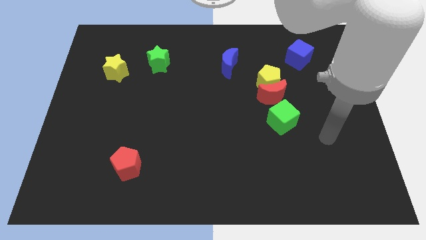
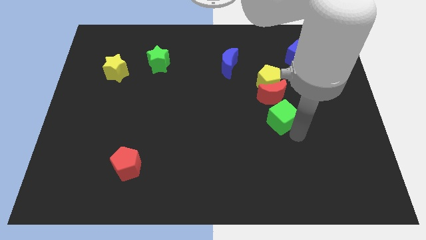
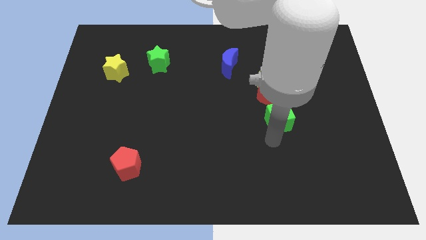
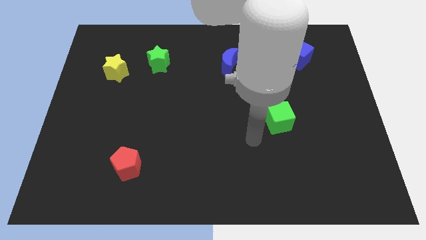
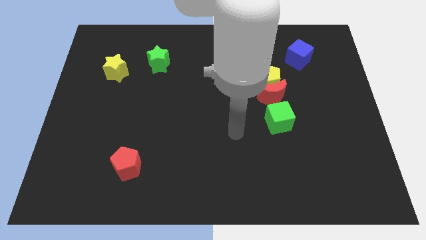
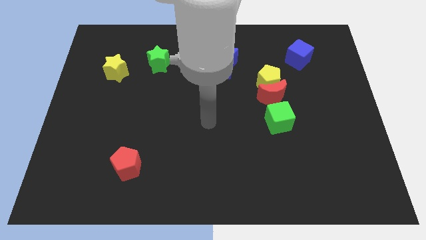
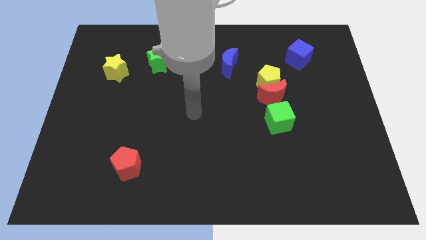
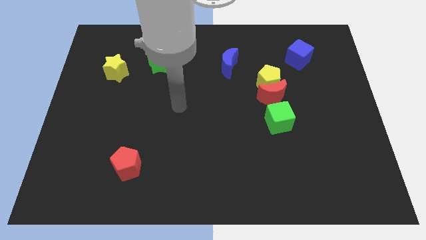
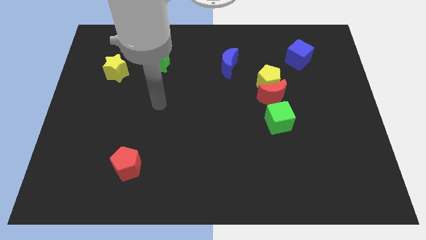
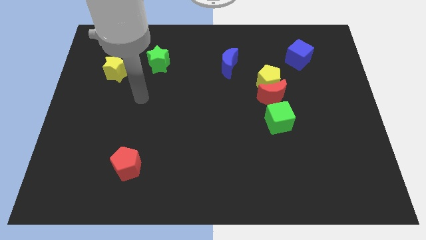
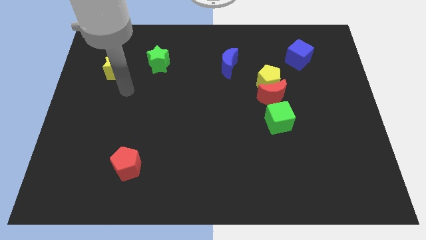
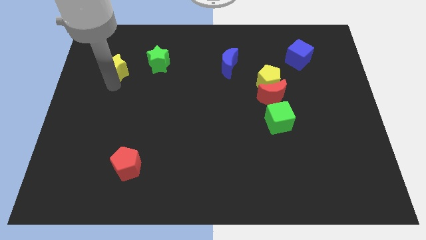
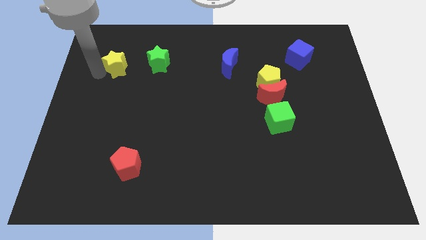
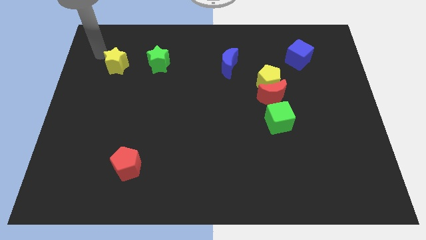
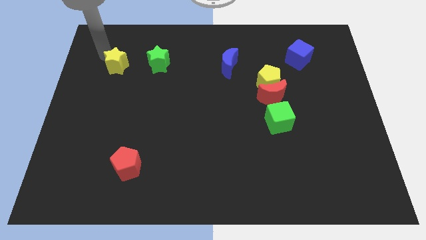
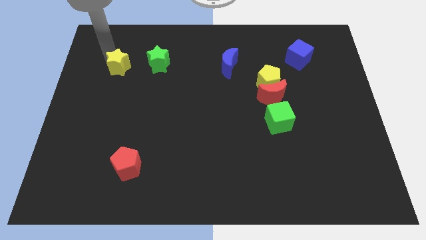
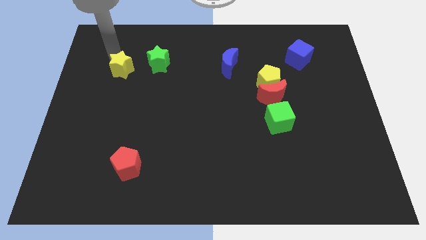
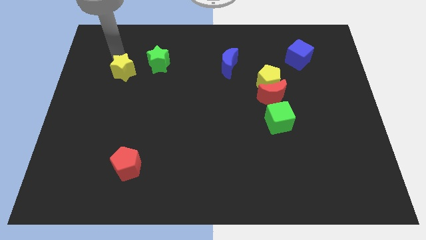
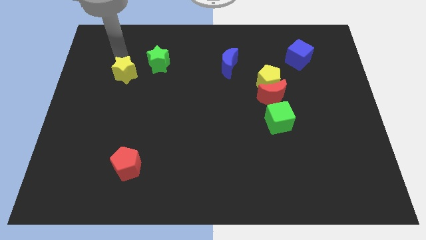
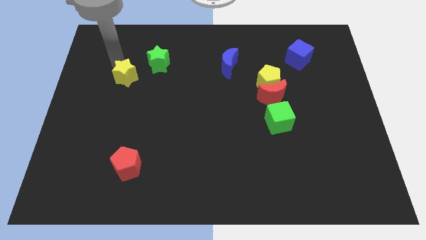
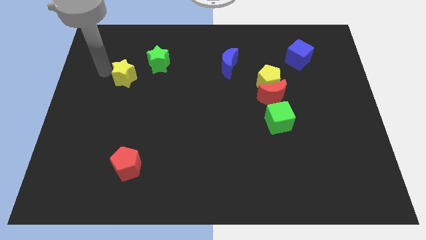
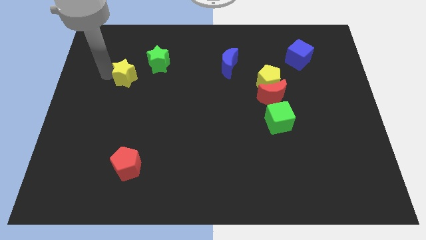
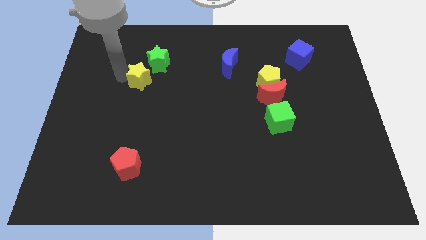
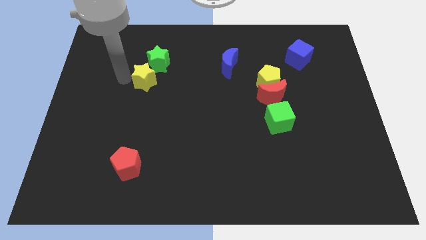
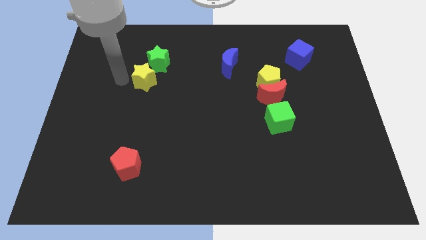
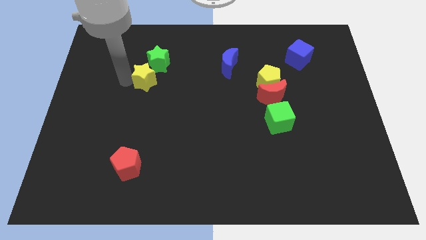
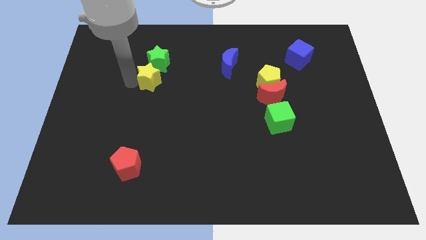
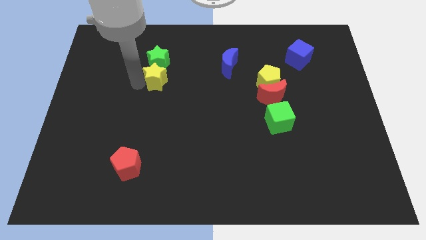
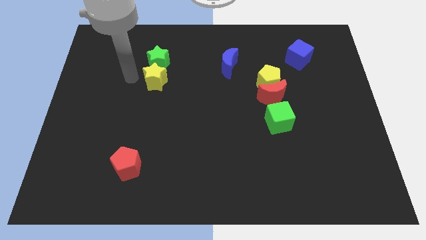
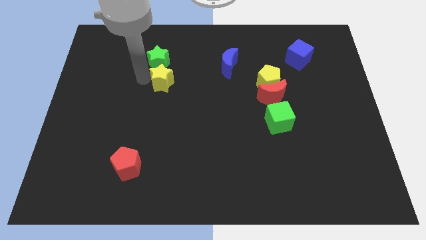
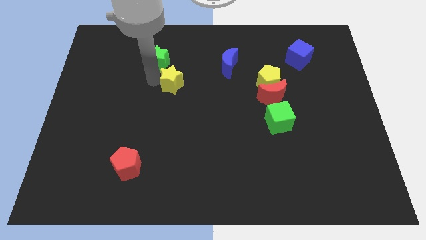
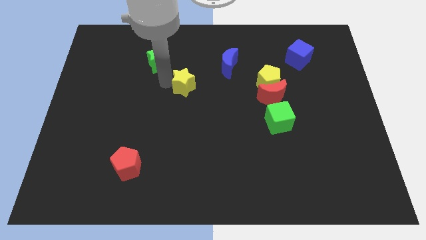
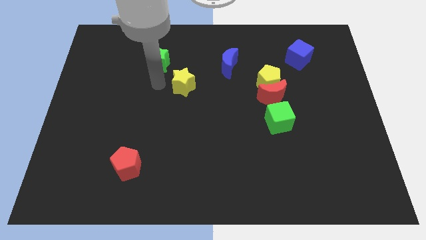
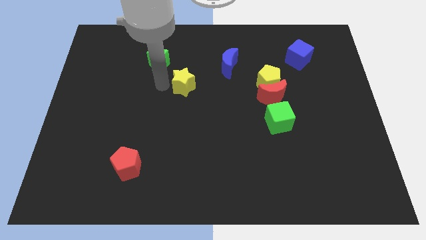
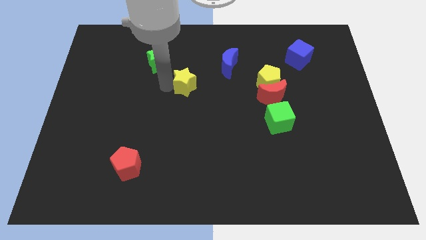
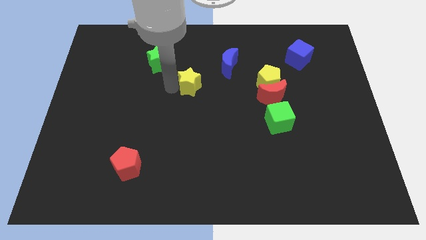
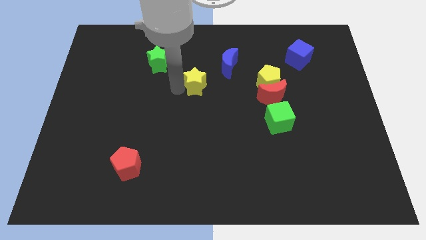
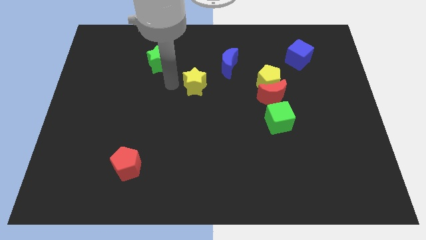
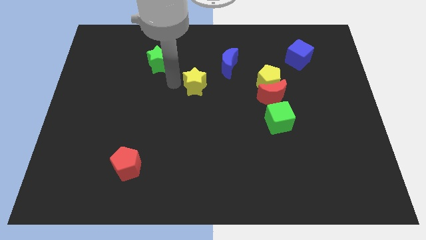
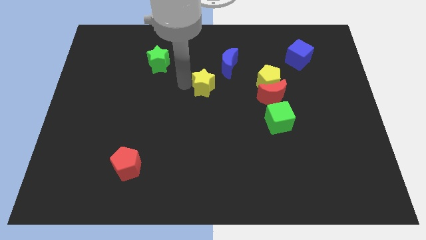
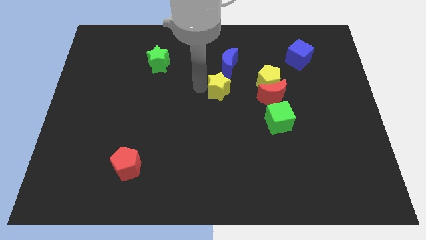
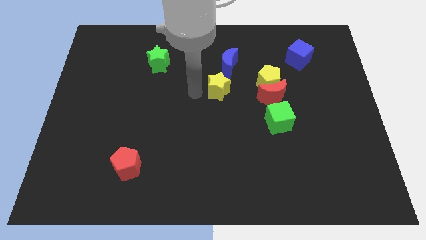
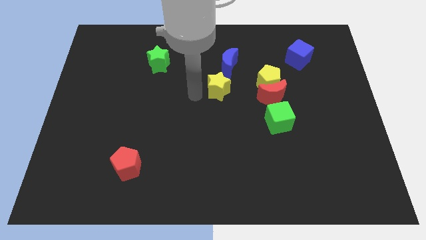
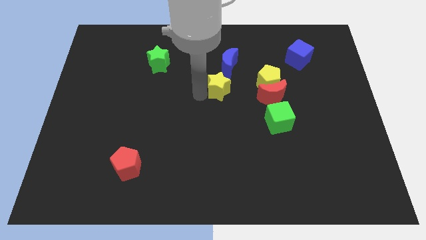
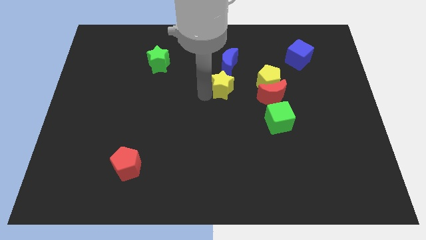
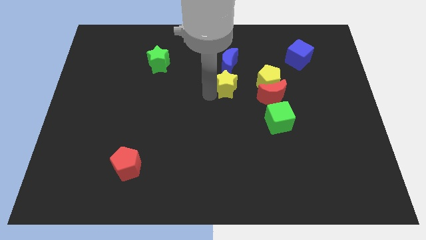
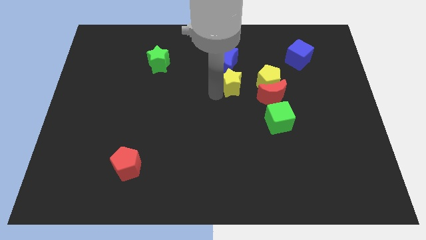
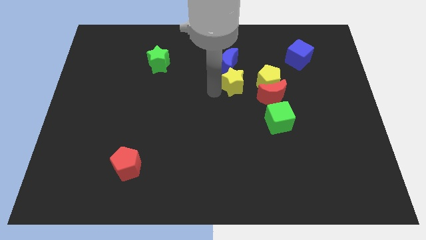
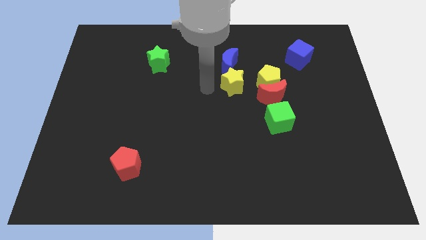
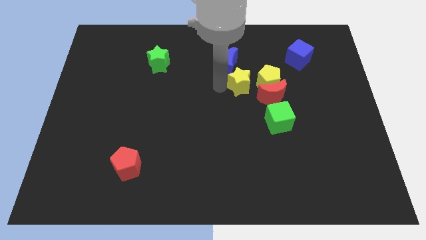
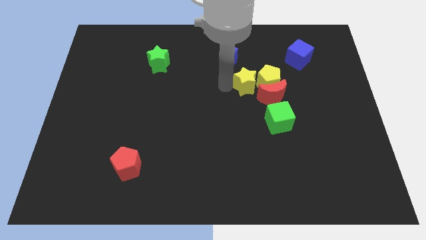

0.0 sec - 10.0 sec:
push the yellow star to the yellow pentagon

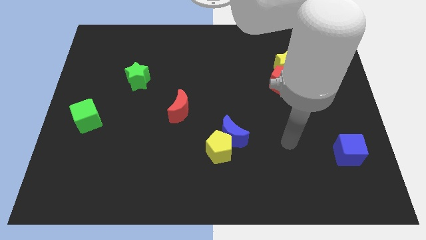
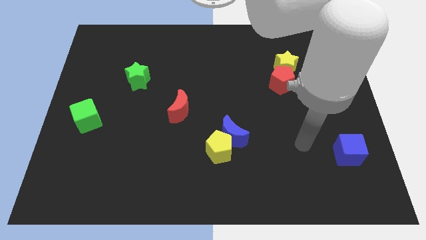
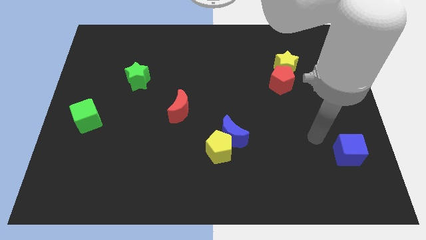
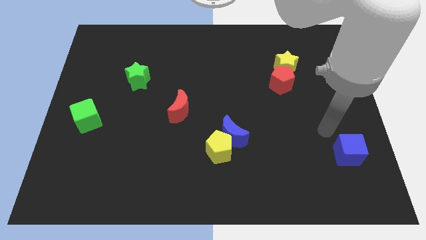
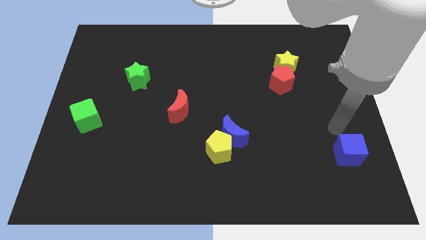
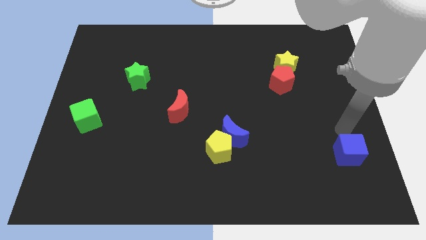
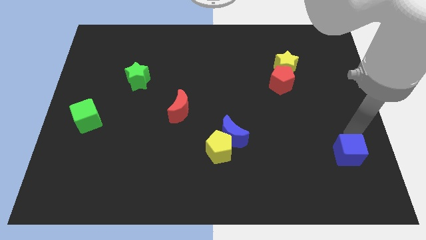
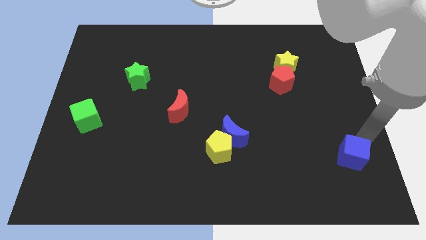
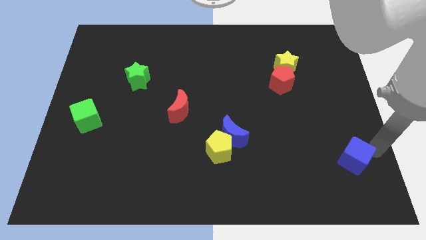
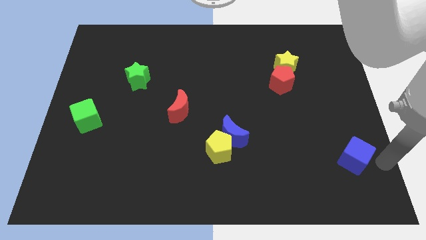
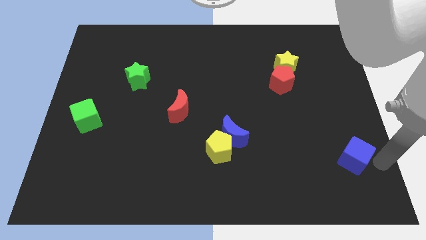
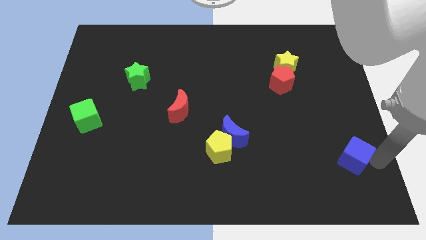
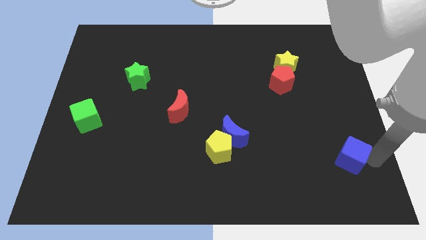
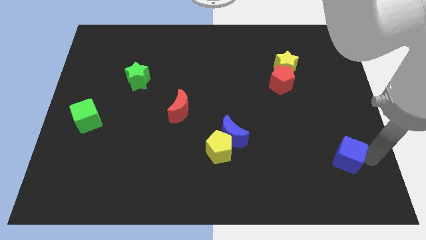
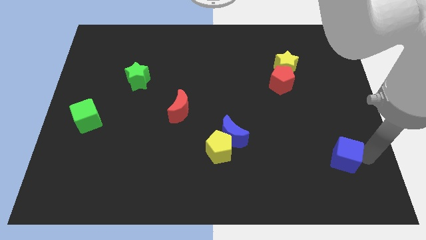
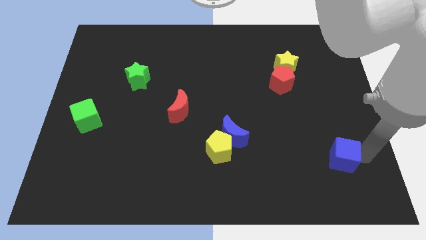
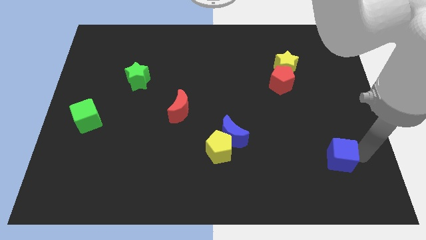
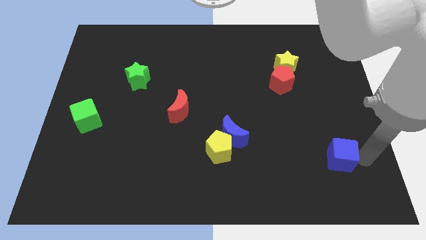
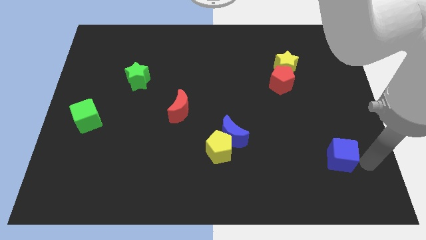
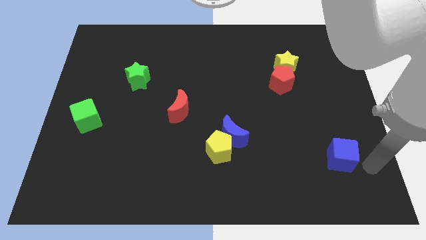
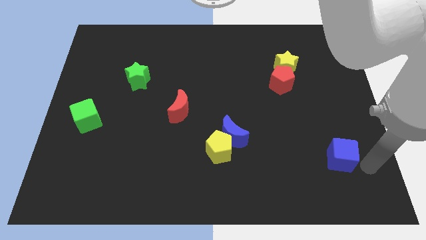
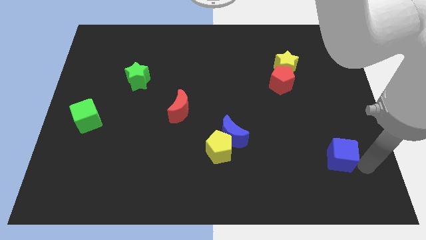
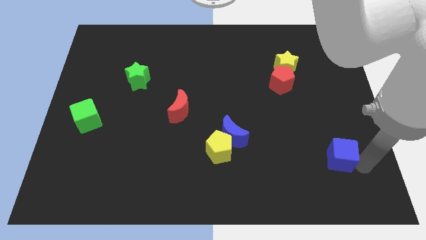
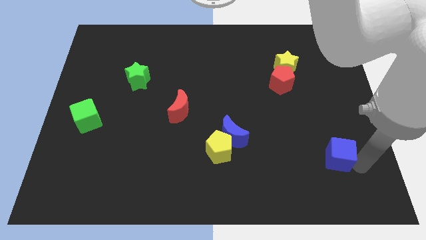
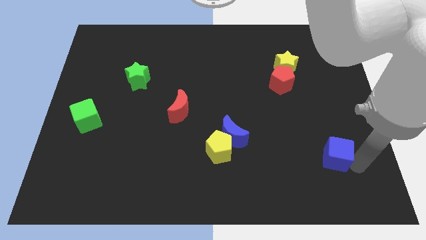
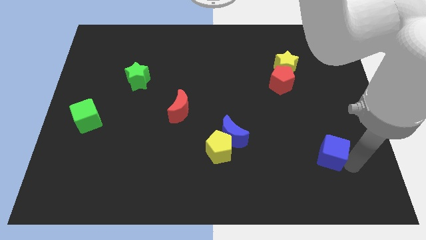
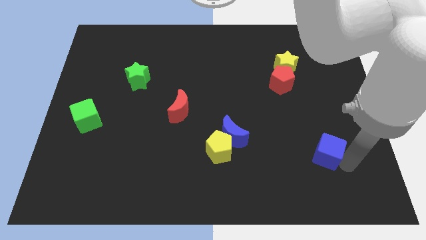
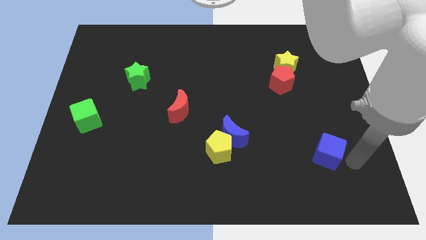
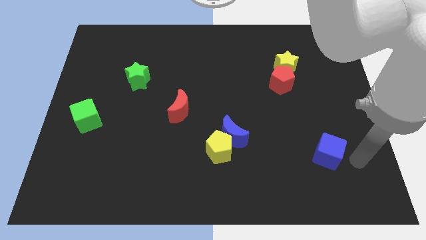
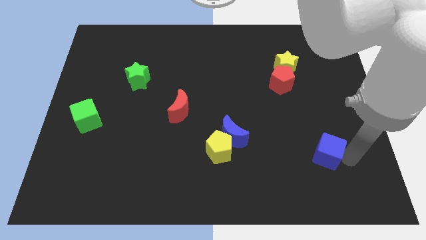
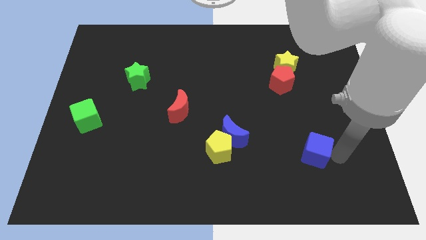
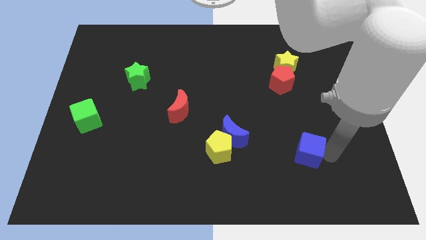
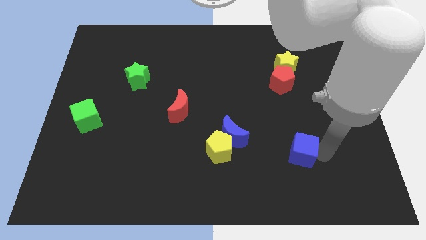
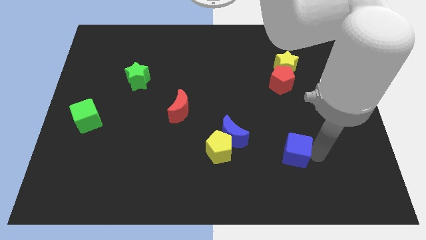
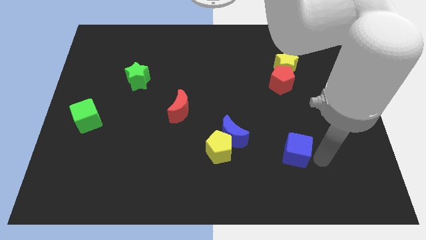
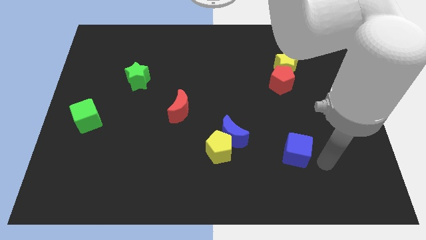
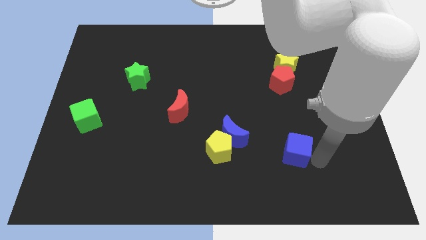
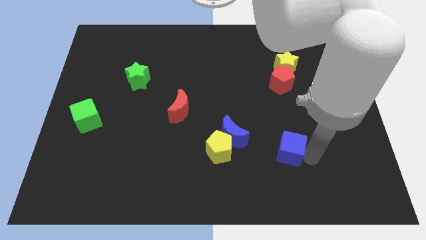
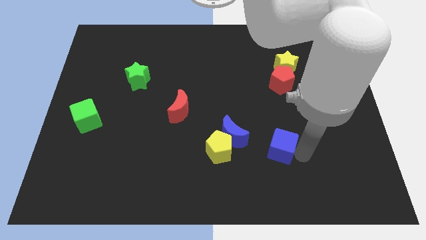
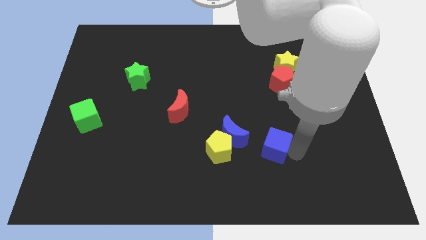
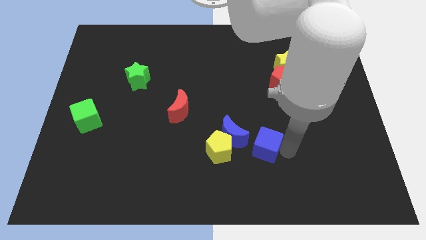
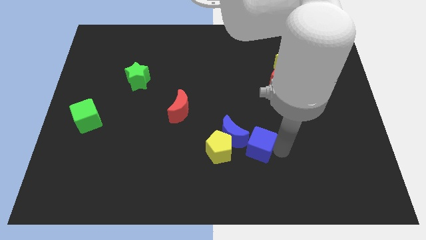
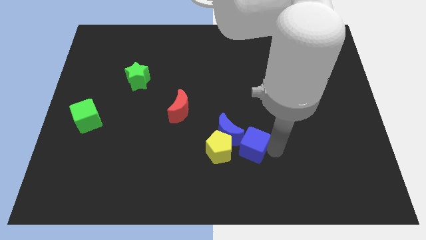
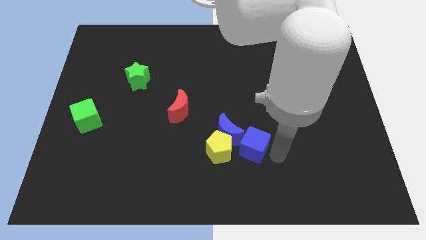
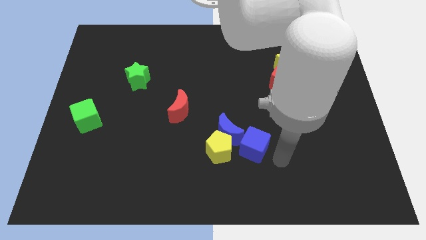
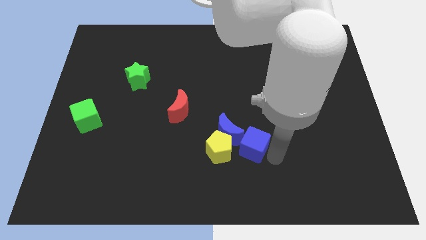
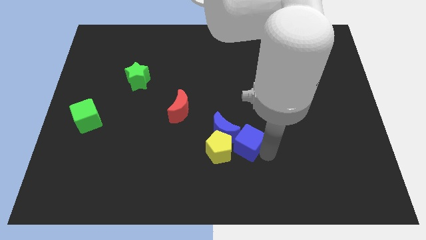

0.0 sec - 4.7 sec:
push the blue cube close to the blue moon
